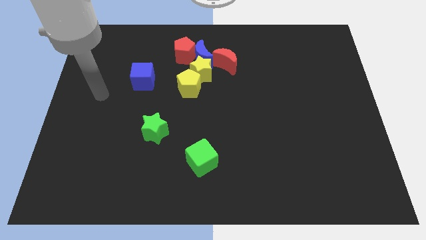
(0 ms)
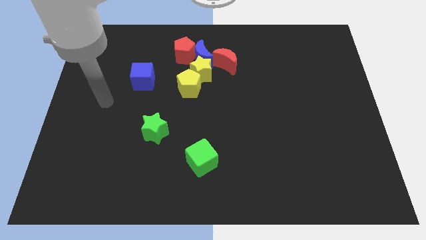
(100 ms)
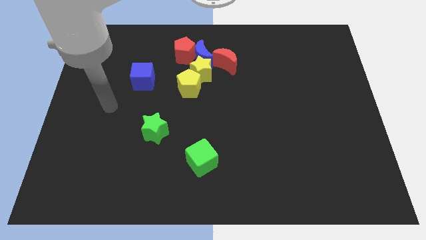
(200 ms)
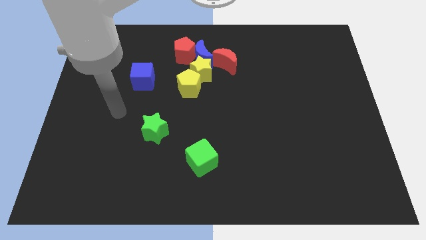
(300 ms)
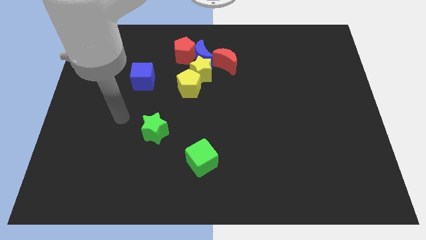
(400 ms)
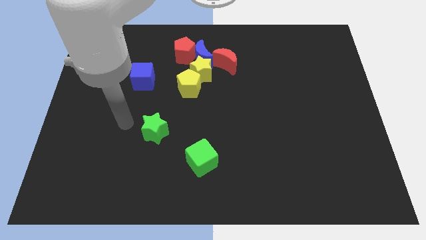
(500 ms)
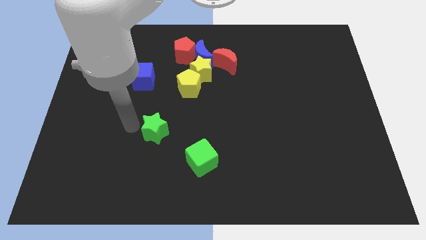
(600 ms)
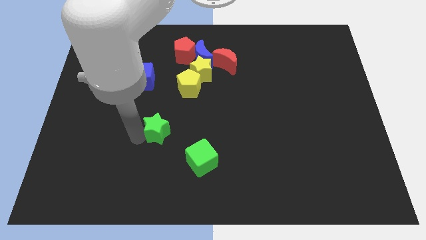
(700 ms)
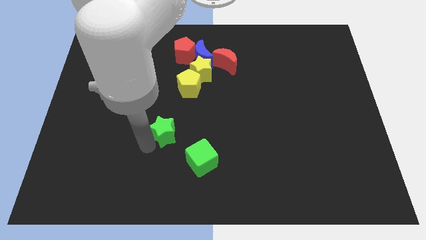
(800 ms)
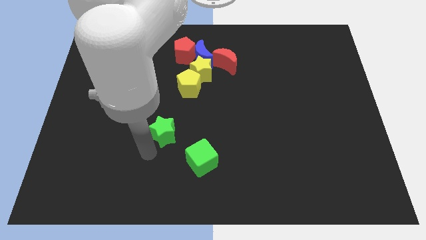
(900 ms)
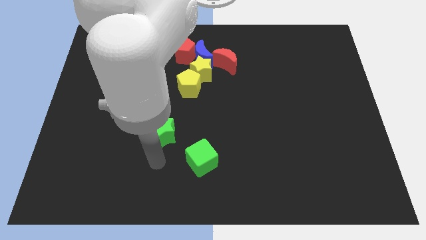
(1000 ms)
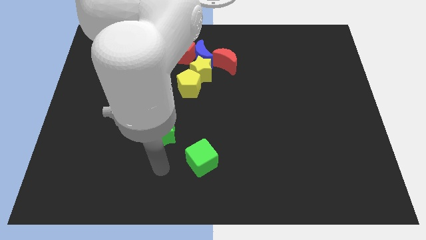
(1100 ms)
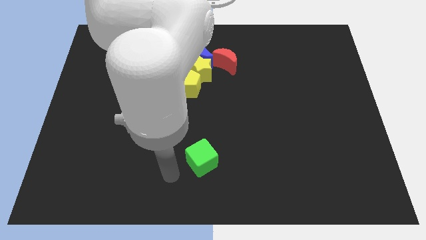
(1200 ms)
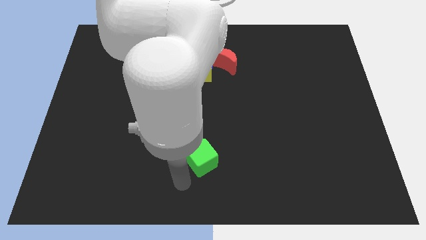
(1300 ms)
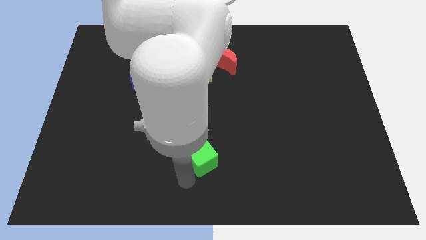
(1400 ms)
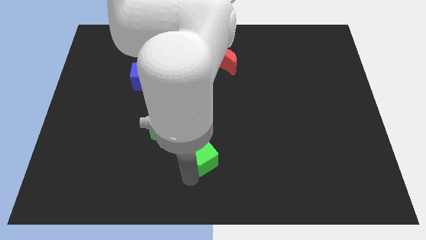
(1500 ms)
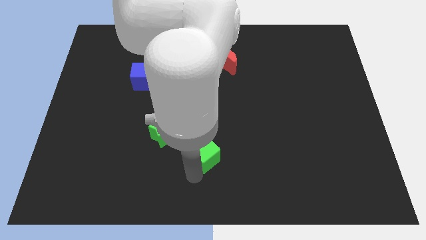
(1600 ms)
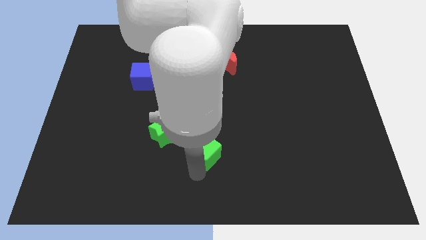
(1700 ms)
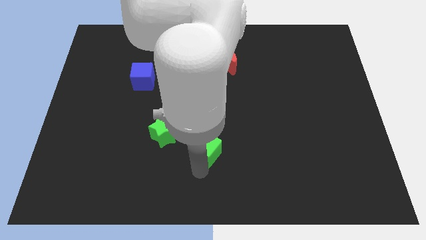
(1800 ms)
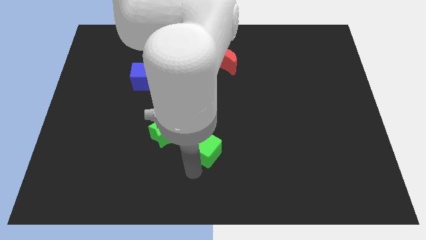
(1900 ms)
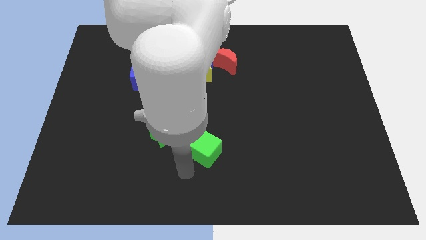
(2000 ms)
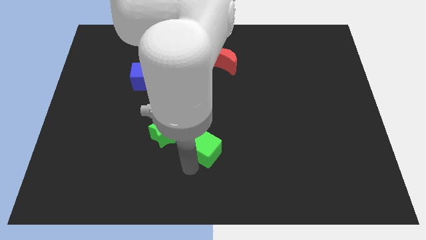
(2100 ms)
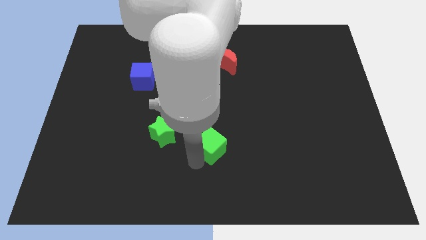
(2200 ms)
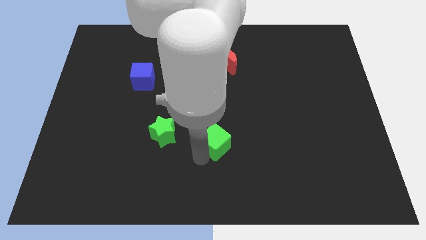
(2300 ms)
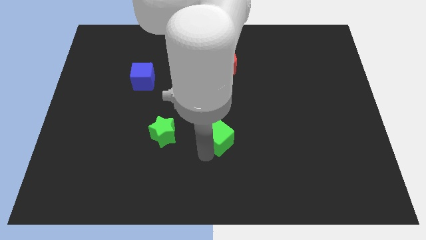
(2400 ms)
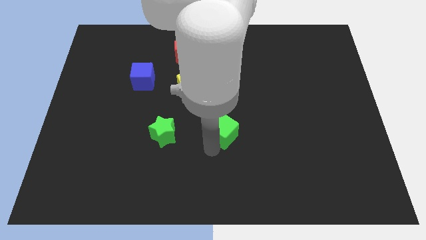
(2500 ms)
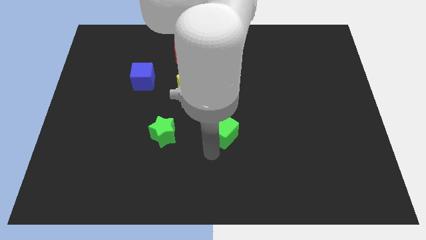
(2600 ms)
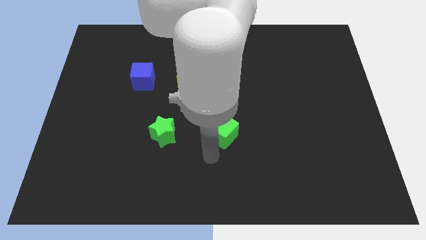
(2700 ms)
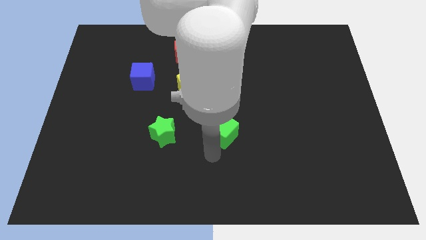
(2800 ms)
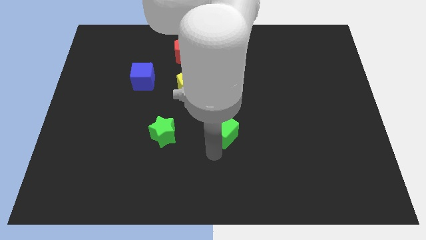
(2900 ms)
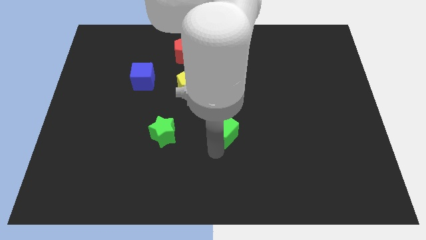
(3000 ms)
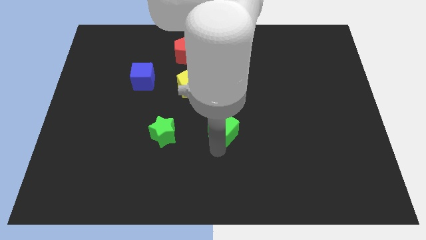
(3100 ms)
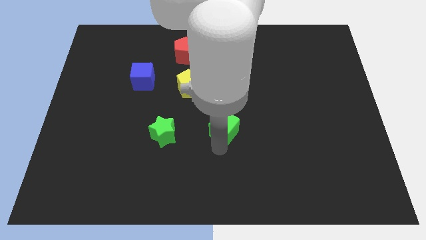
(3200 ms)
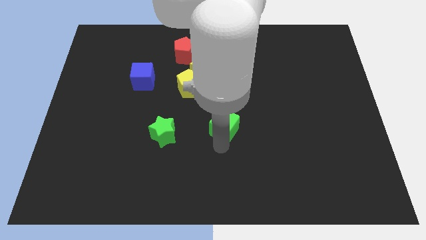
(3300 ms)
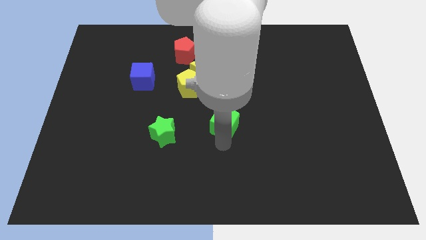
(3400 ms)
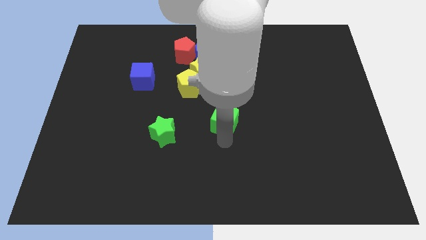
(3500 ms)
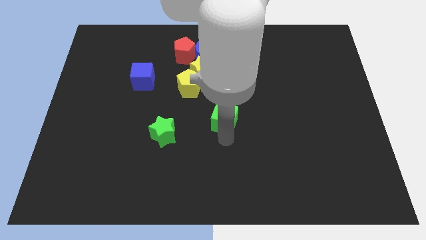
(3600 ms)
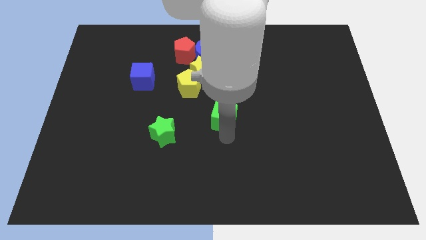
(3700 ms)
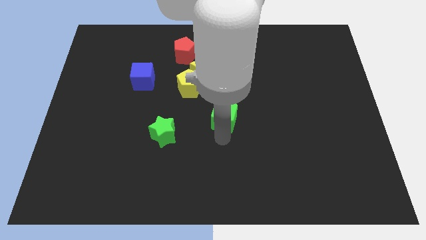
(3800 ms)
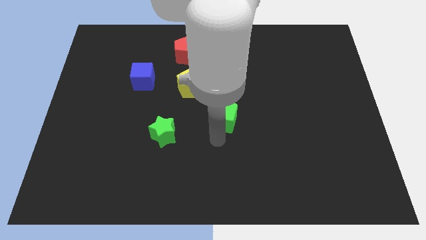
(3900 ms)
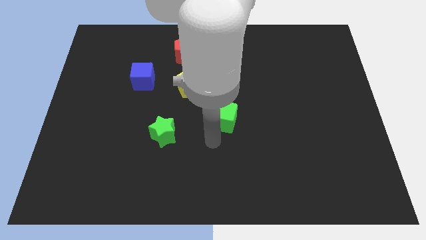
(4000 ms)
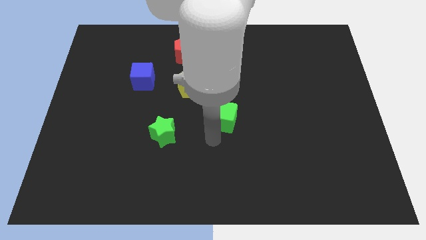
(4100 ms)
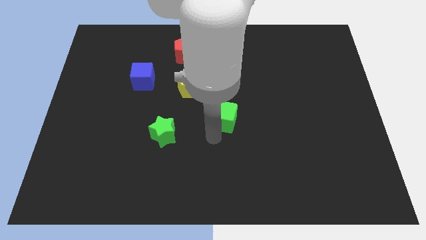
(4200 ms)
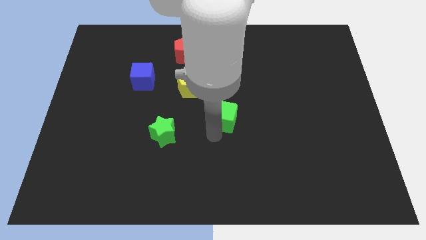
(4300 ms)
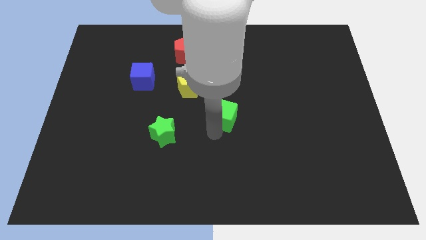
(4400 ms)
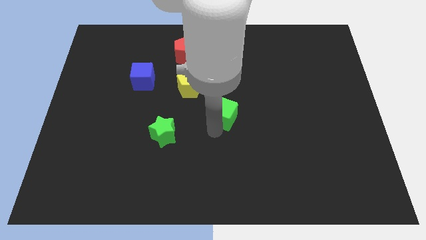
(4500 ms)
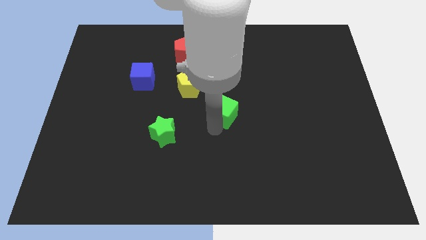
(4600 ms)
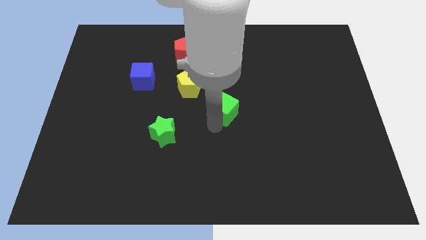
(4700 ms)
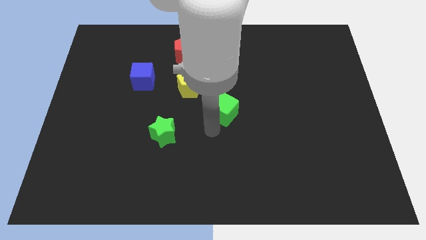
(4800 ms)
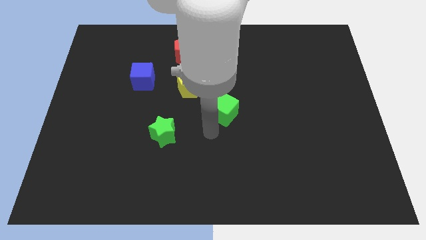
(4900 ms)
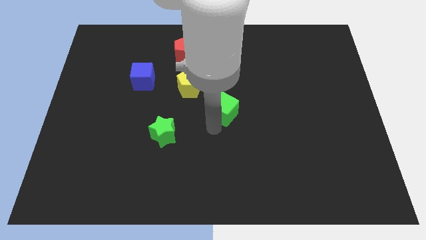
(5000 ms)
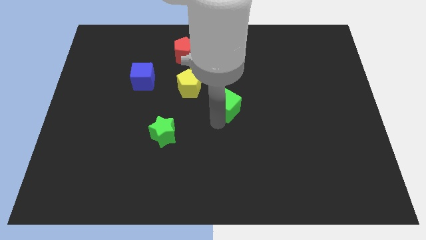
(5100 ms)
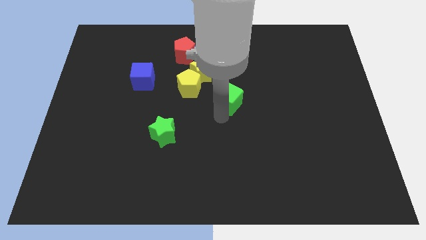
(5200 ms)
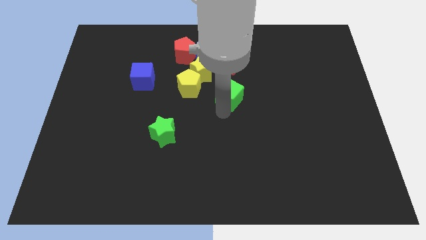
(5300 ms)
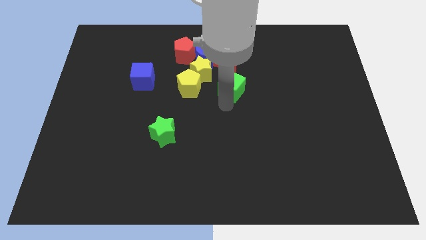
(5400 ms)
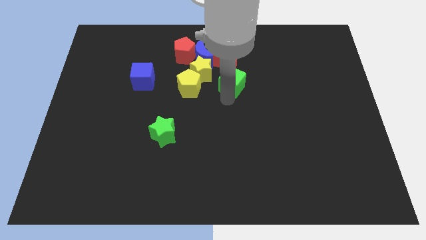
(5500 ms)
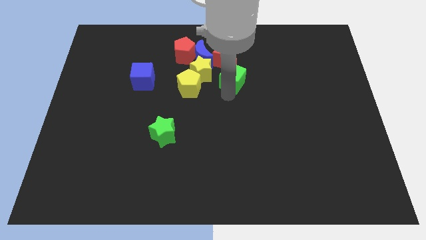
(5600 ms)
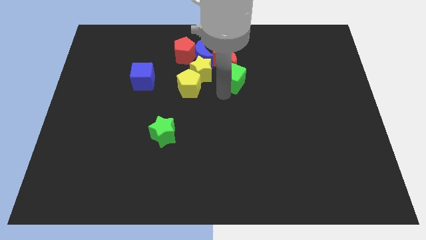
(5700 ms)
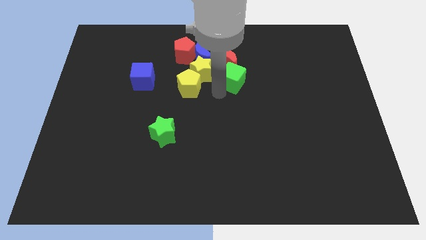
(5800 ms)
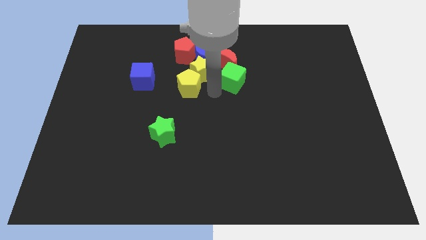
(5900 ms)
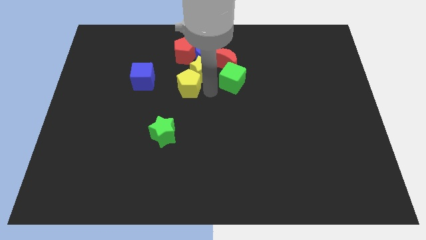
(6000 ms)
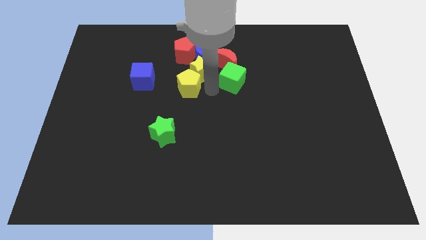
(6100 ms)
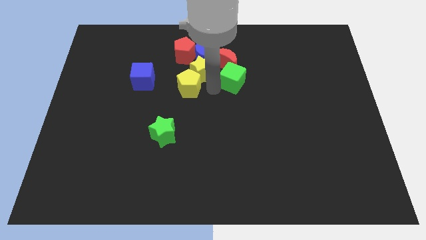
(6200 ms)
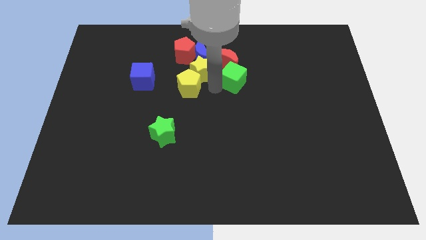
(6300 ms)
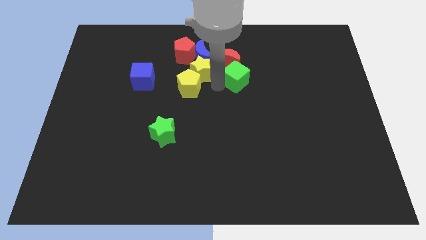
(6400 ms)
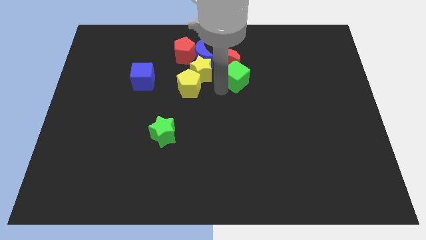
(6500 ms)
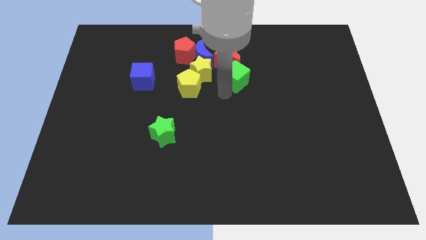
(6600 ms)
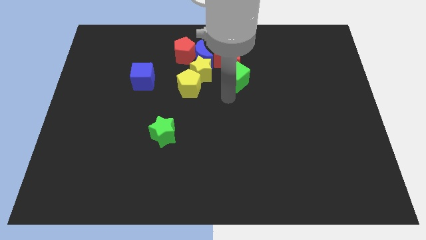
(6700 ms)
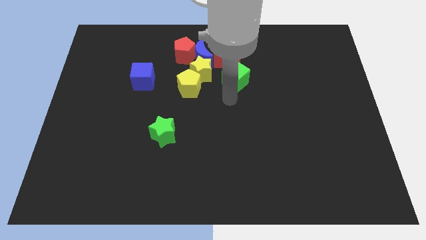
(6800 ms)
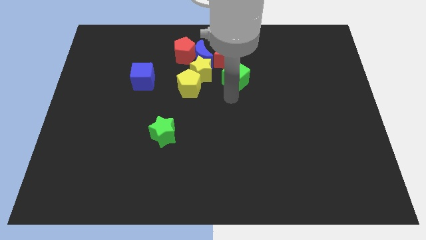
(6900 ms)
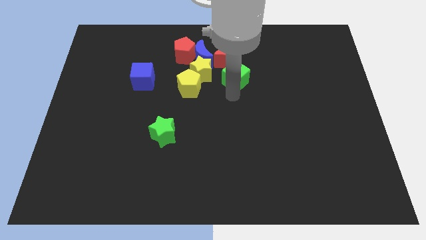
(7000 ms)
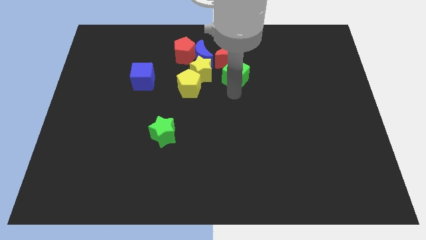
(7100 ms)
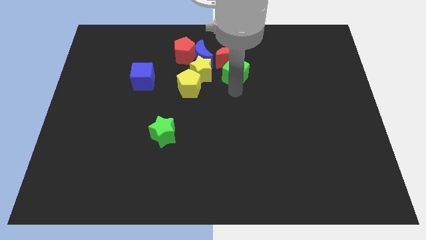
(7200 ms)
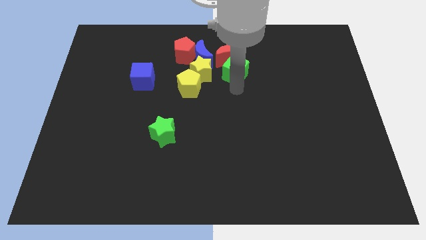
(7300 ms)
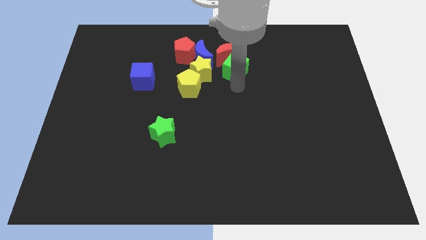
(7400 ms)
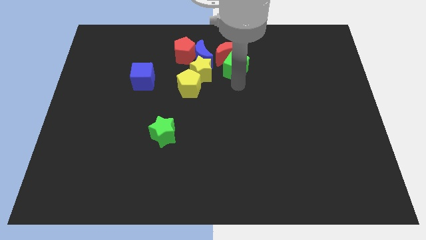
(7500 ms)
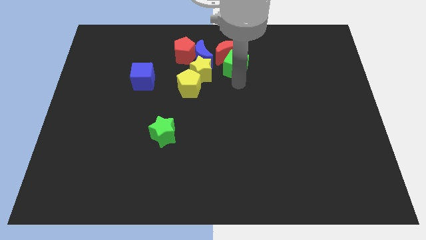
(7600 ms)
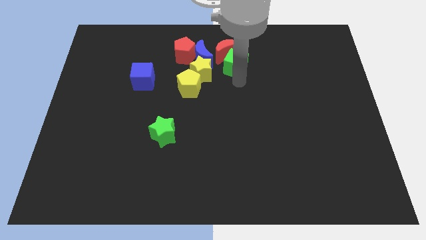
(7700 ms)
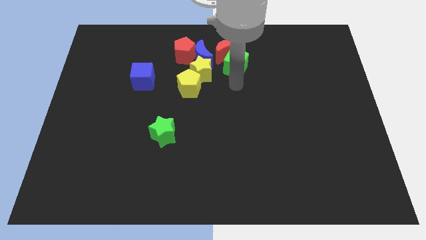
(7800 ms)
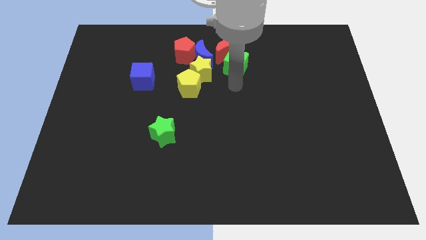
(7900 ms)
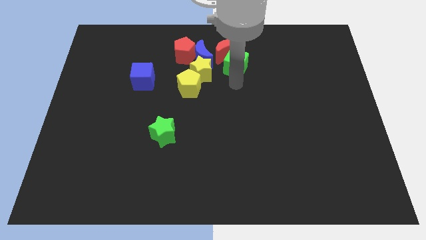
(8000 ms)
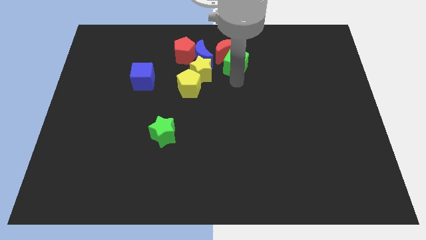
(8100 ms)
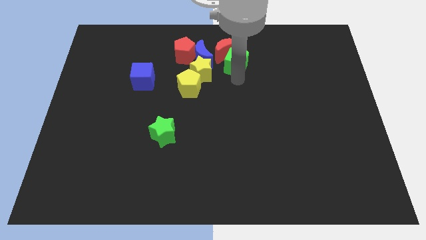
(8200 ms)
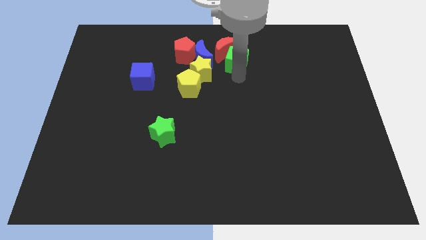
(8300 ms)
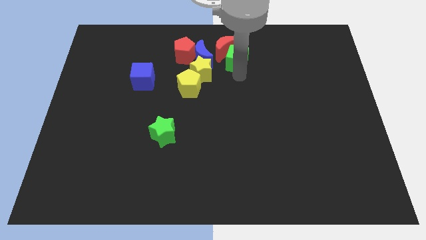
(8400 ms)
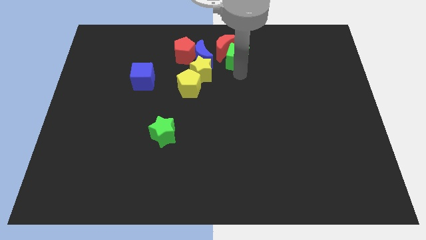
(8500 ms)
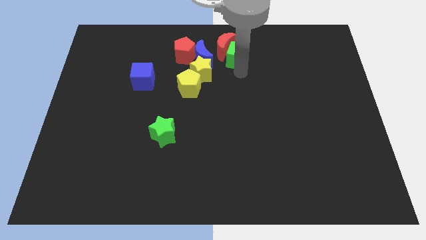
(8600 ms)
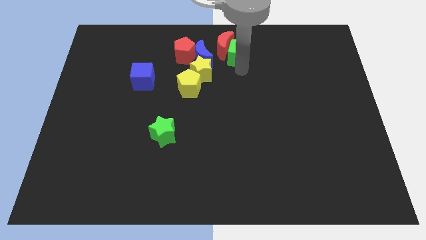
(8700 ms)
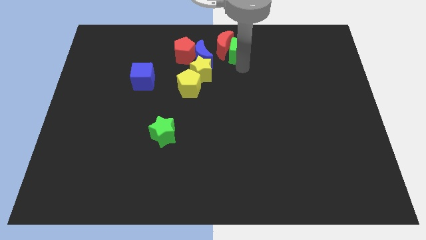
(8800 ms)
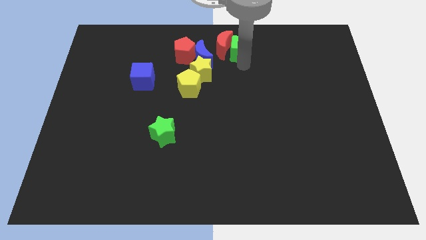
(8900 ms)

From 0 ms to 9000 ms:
put the green cube to the towards your base
